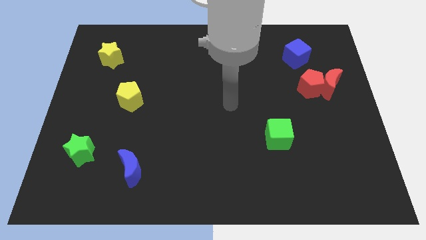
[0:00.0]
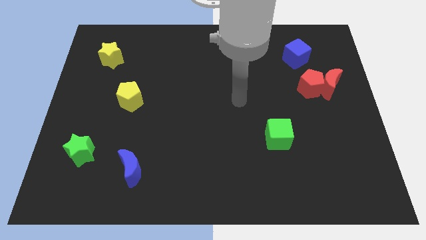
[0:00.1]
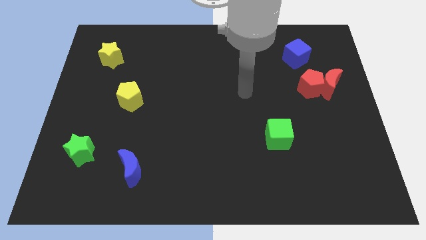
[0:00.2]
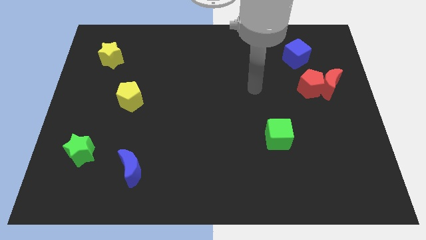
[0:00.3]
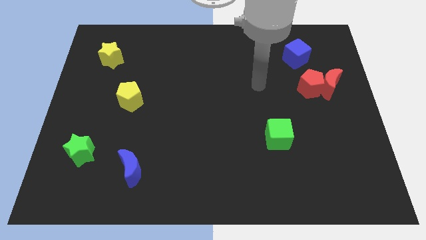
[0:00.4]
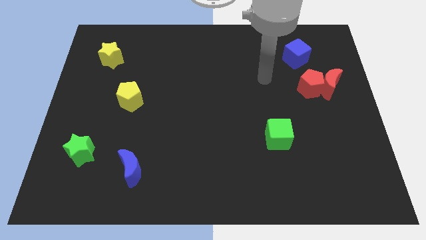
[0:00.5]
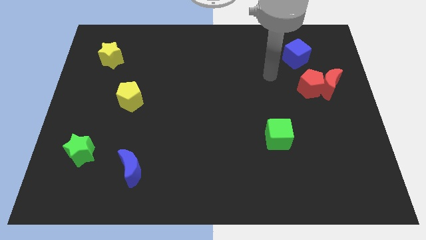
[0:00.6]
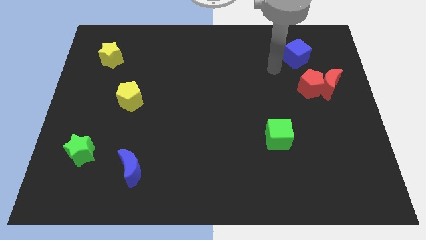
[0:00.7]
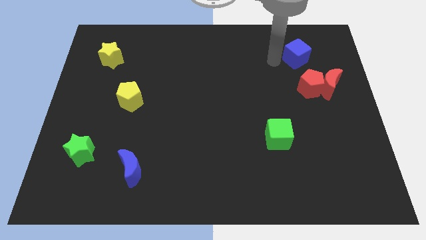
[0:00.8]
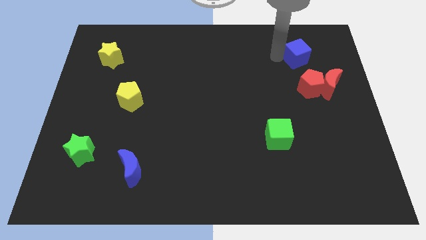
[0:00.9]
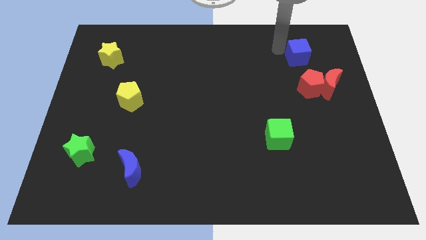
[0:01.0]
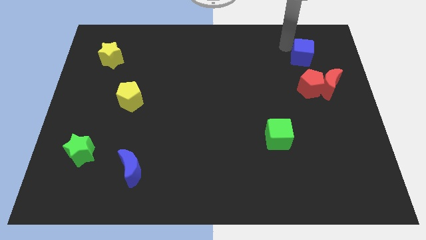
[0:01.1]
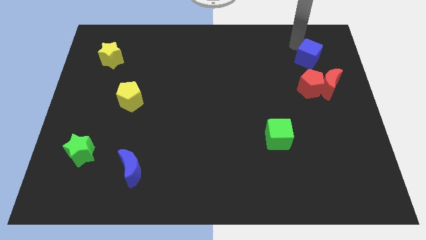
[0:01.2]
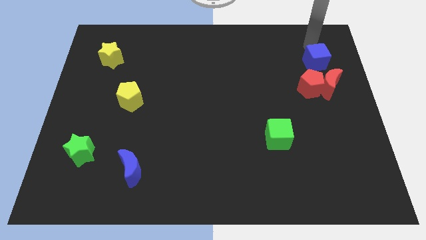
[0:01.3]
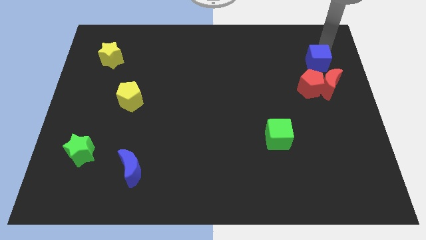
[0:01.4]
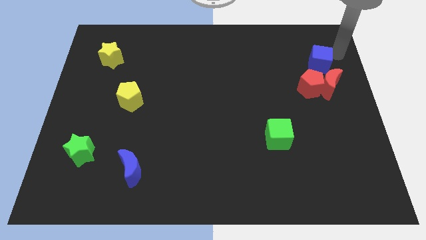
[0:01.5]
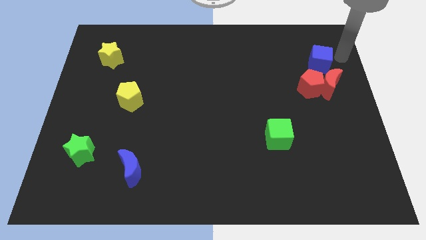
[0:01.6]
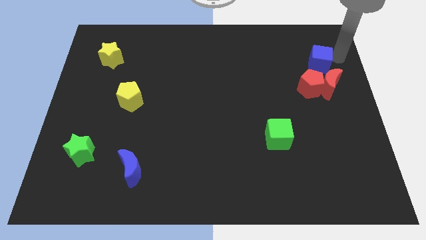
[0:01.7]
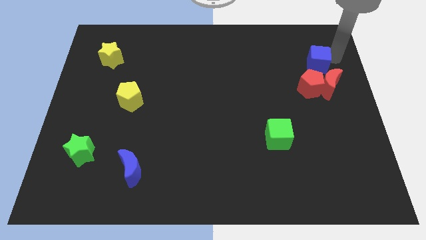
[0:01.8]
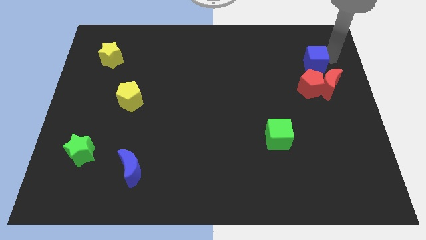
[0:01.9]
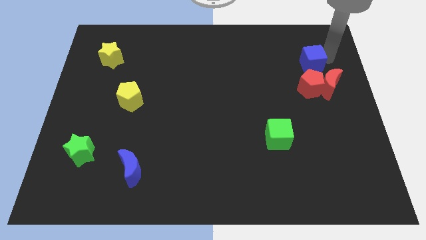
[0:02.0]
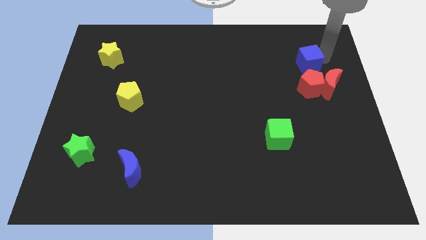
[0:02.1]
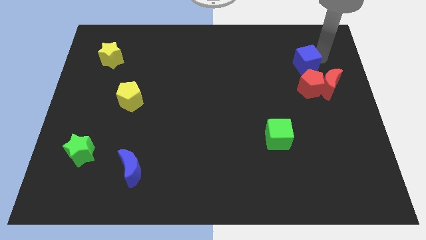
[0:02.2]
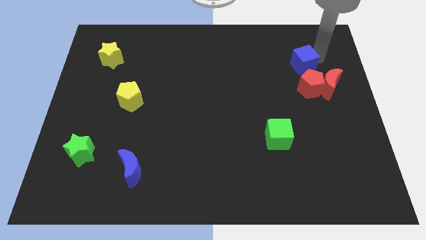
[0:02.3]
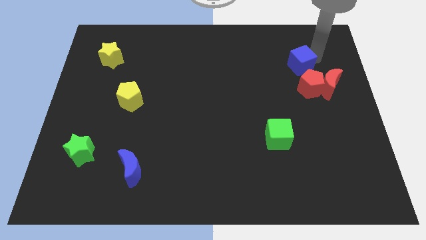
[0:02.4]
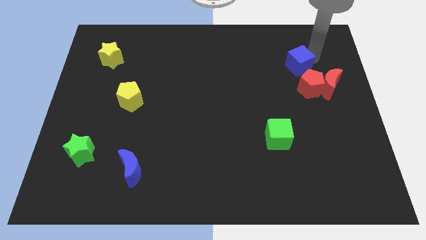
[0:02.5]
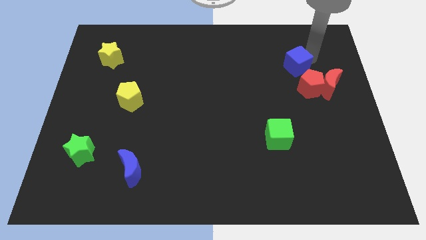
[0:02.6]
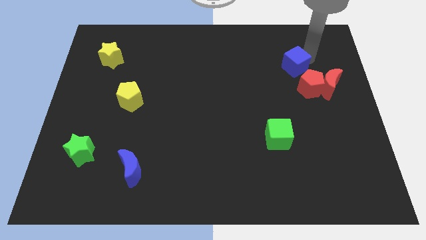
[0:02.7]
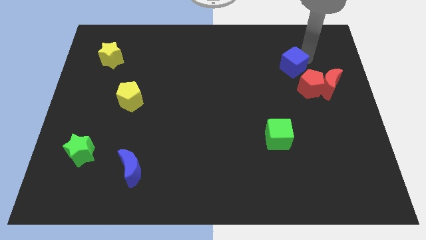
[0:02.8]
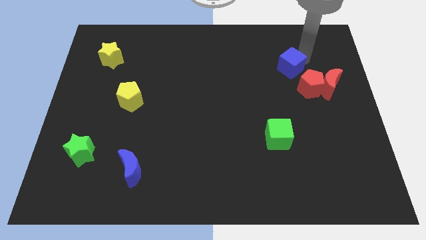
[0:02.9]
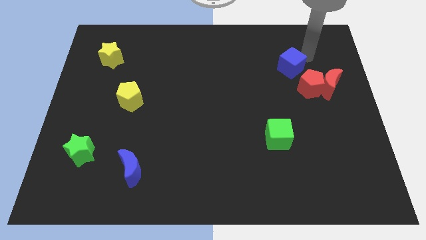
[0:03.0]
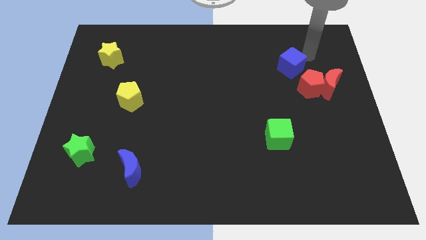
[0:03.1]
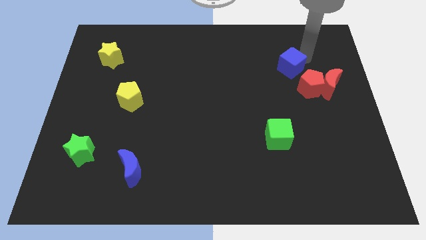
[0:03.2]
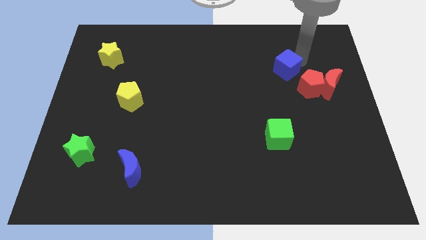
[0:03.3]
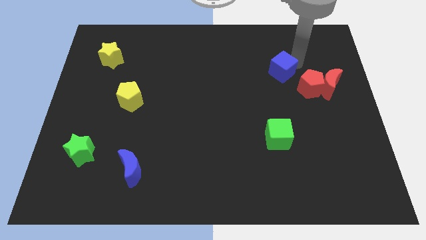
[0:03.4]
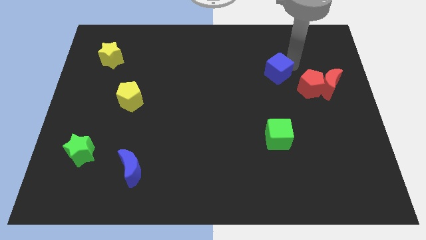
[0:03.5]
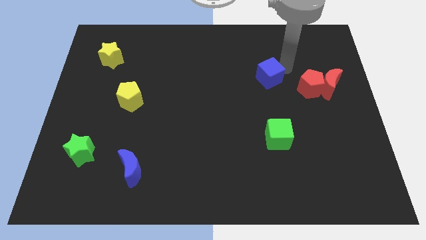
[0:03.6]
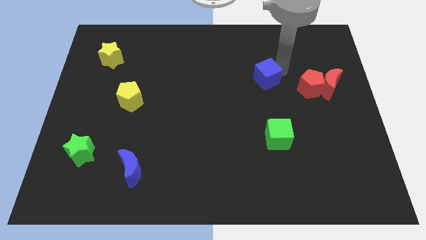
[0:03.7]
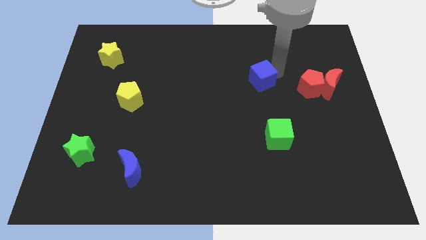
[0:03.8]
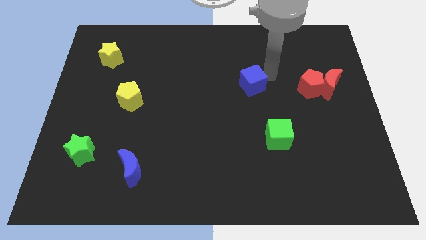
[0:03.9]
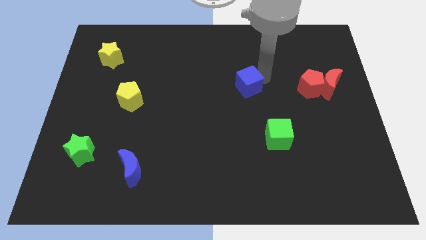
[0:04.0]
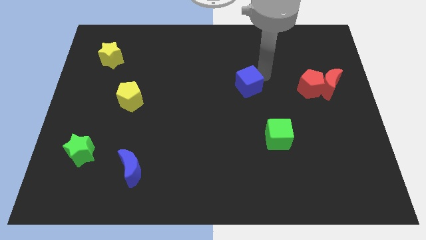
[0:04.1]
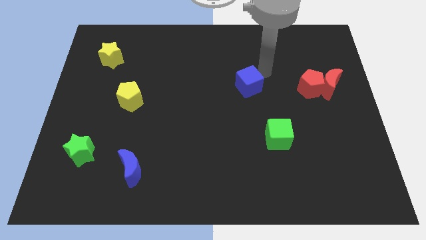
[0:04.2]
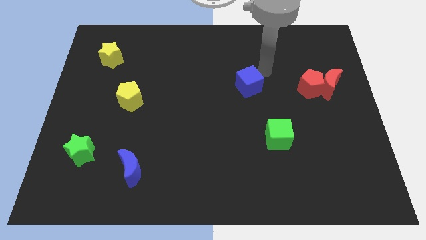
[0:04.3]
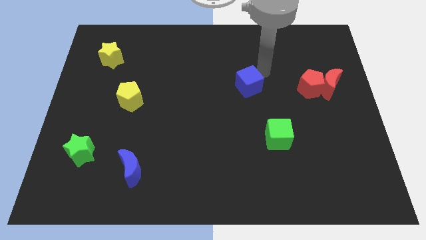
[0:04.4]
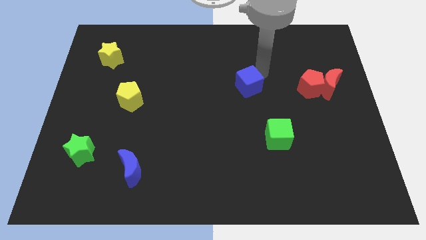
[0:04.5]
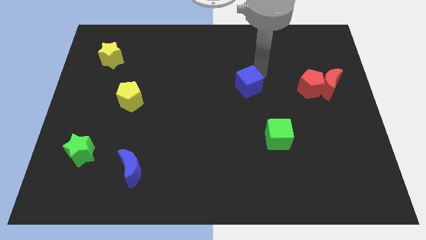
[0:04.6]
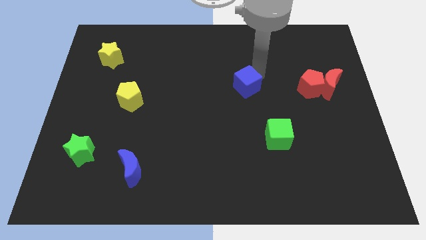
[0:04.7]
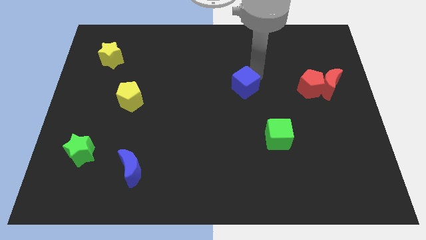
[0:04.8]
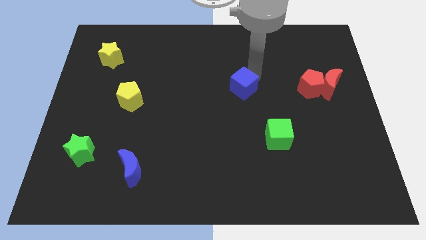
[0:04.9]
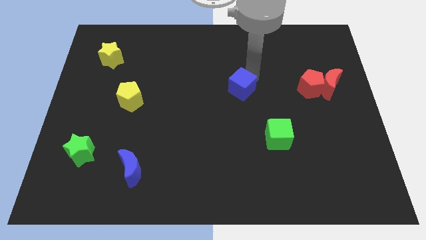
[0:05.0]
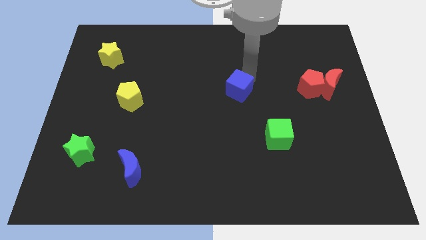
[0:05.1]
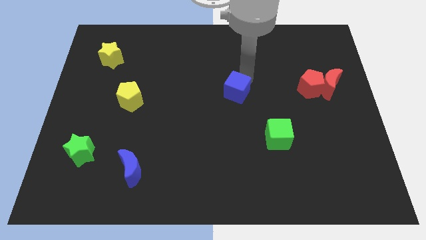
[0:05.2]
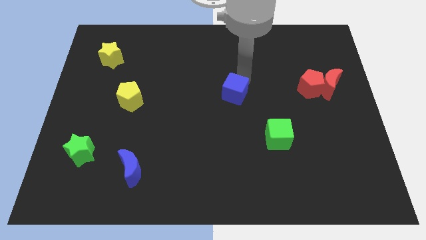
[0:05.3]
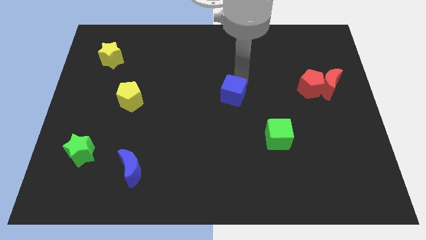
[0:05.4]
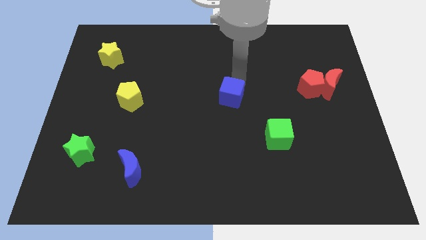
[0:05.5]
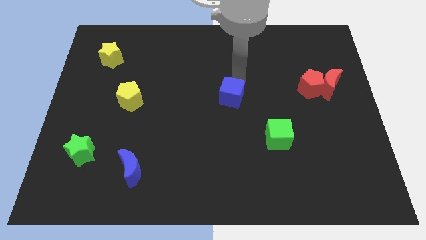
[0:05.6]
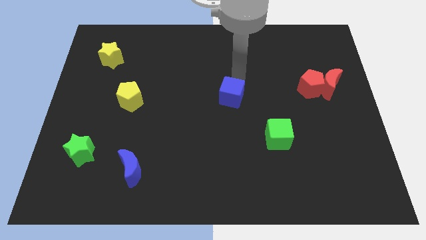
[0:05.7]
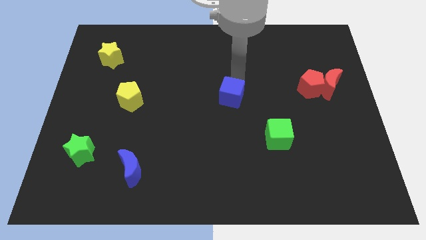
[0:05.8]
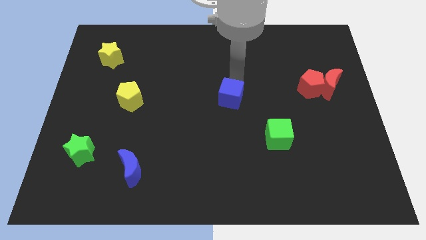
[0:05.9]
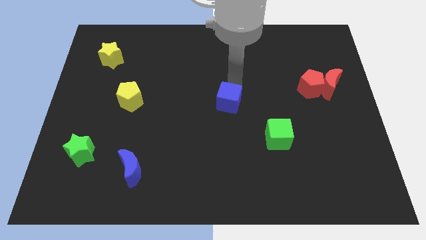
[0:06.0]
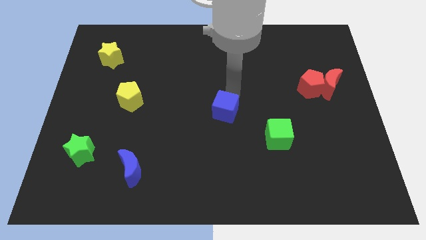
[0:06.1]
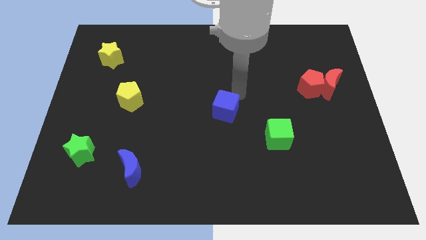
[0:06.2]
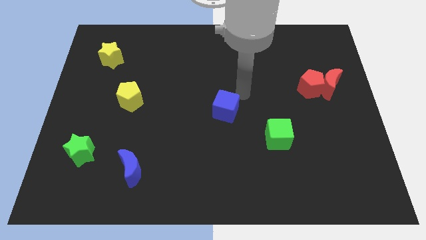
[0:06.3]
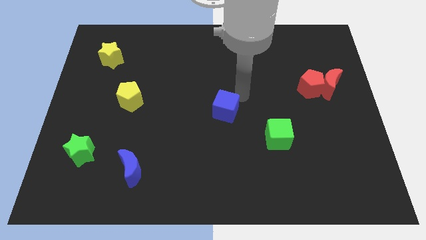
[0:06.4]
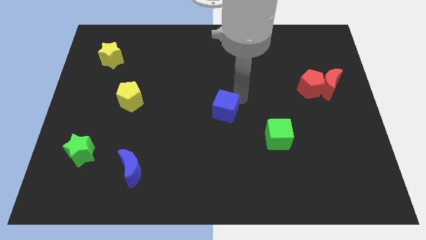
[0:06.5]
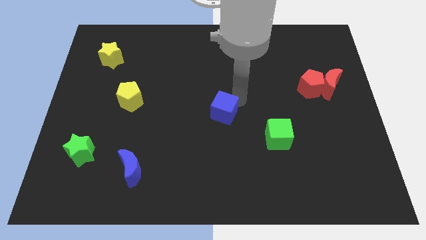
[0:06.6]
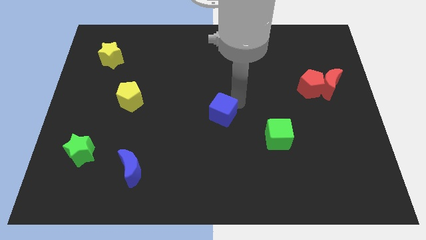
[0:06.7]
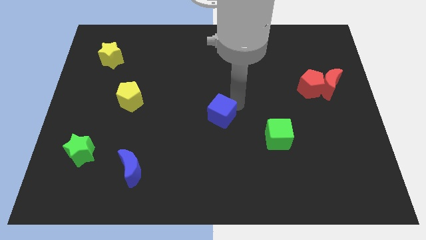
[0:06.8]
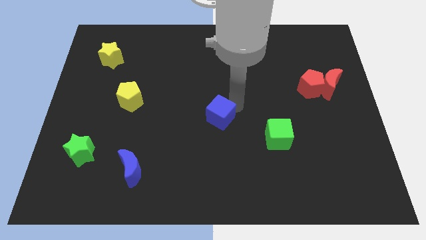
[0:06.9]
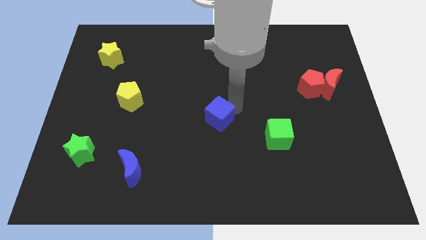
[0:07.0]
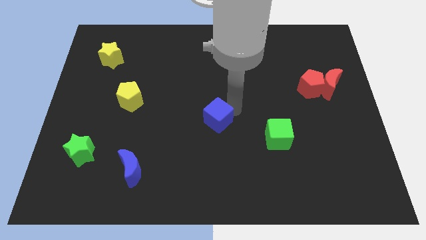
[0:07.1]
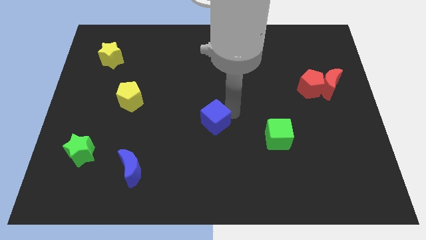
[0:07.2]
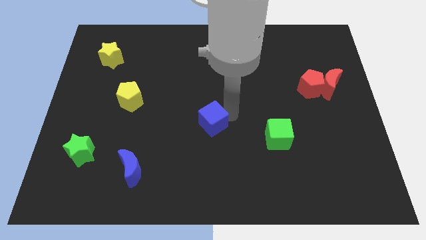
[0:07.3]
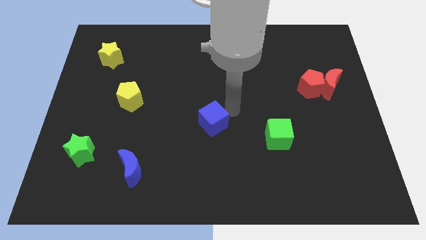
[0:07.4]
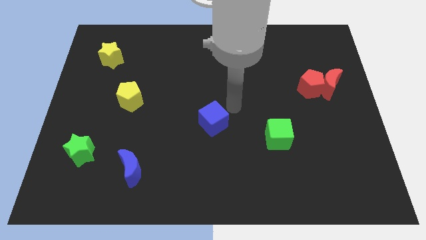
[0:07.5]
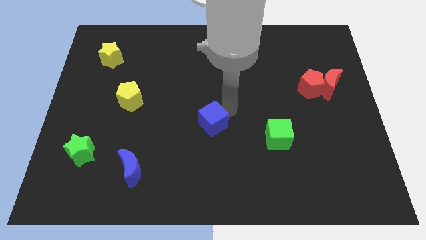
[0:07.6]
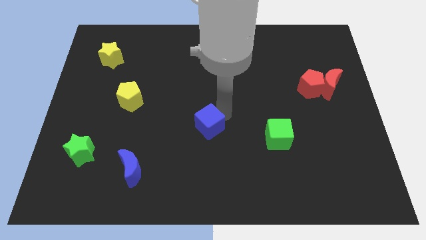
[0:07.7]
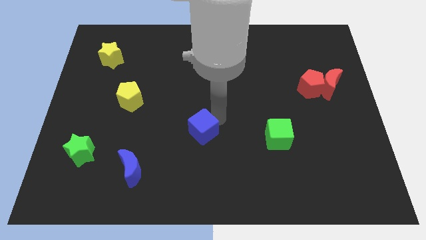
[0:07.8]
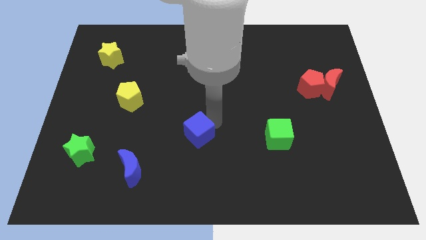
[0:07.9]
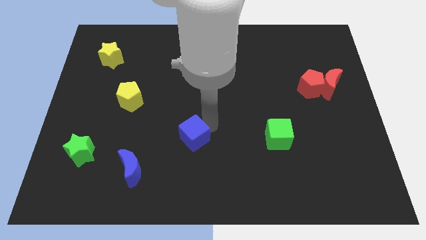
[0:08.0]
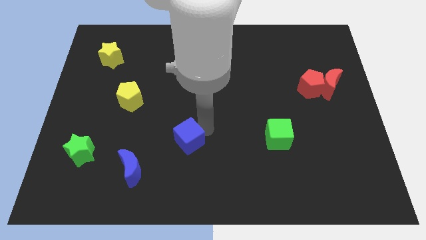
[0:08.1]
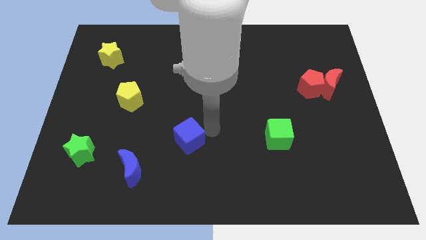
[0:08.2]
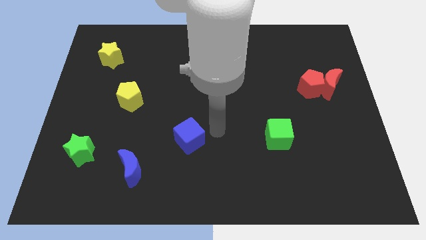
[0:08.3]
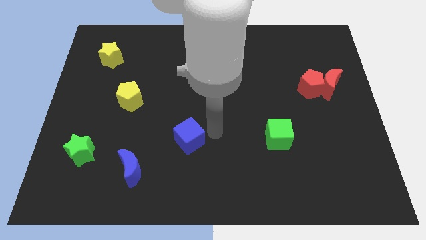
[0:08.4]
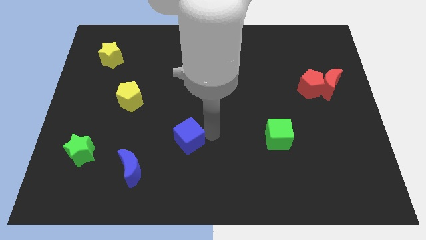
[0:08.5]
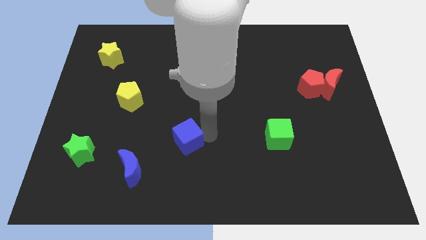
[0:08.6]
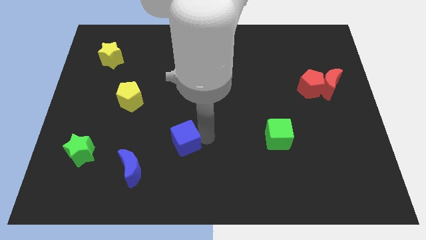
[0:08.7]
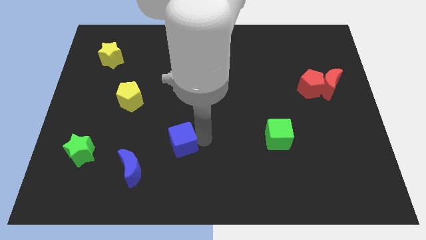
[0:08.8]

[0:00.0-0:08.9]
put the blue cube diagonally up and to the right of the blue moon
